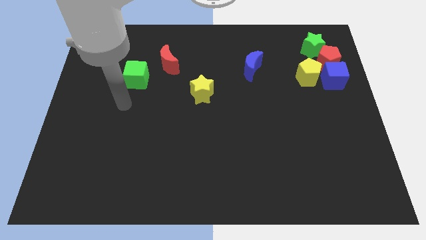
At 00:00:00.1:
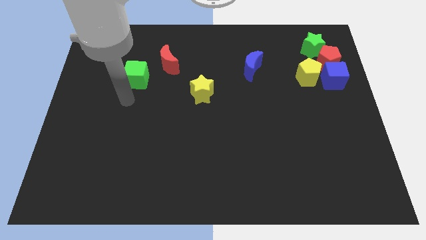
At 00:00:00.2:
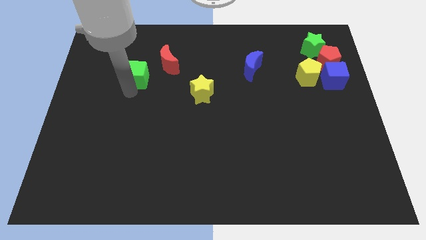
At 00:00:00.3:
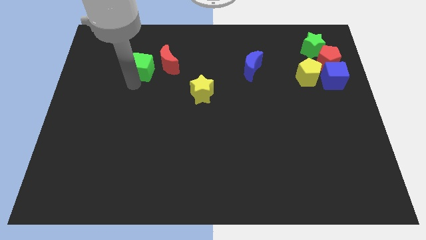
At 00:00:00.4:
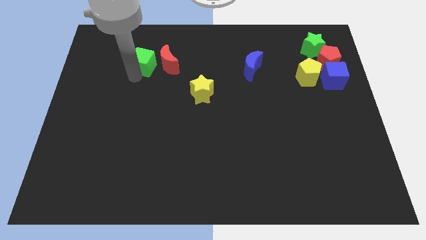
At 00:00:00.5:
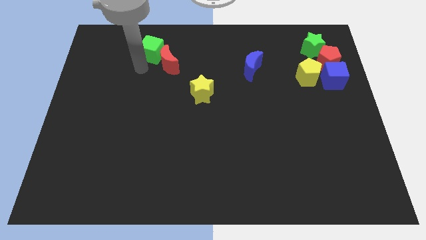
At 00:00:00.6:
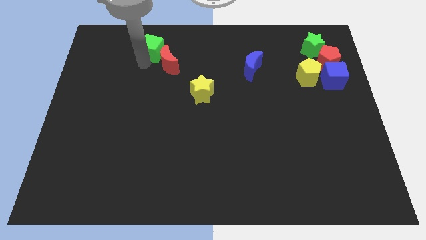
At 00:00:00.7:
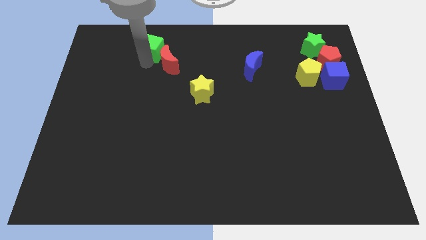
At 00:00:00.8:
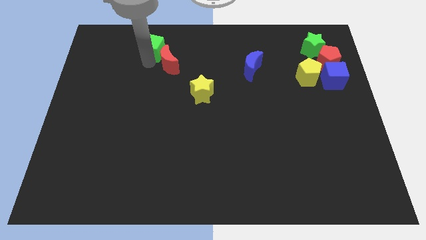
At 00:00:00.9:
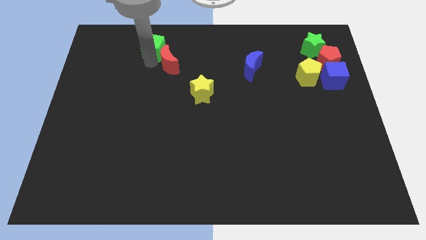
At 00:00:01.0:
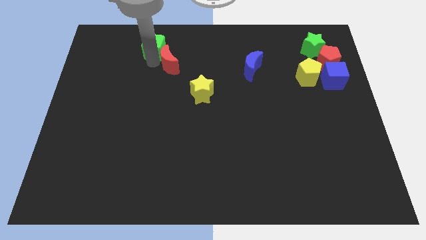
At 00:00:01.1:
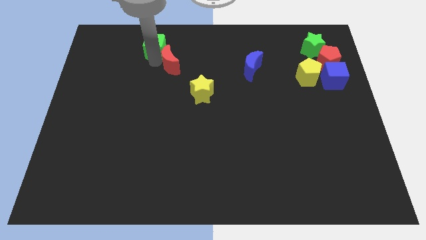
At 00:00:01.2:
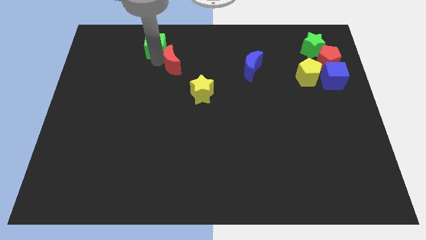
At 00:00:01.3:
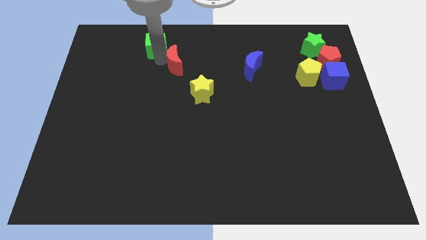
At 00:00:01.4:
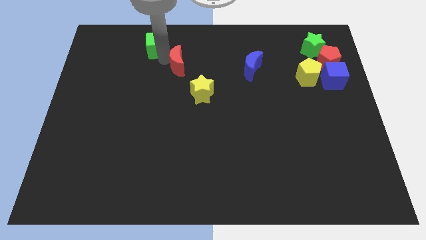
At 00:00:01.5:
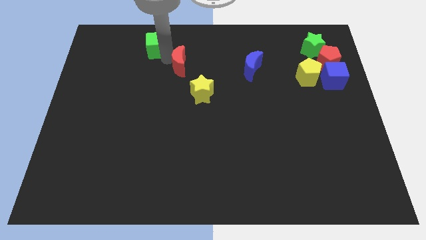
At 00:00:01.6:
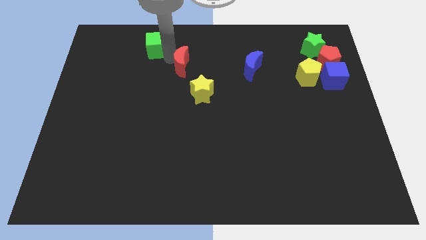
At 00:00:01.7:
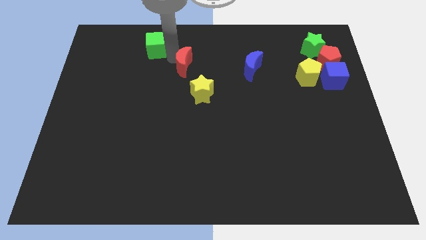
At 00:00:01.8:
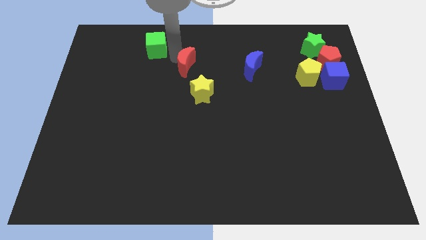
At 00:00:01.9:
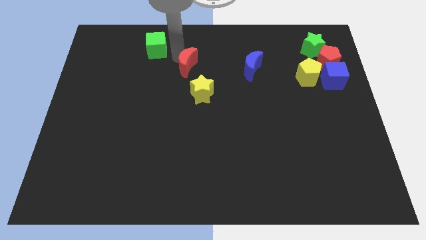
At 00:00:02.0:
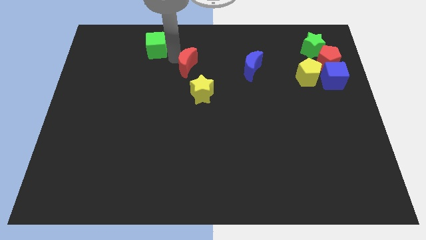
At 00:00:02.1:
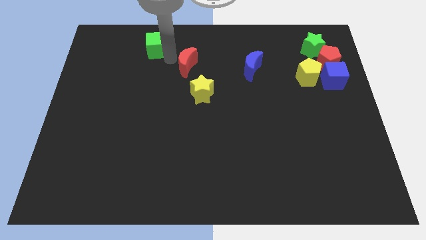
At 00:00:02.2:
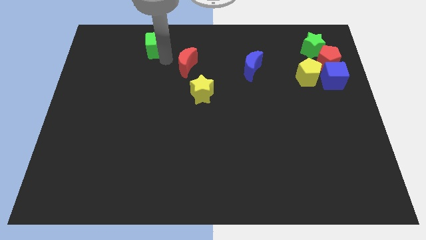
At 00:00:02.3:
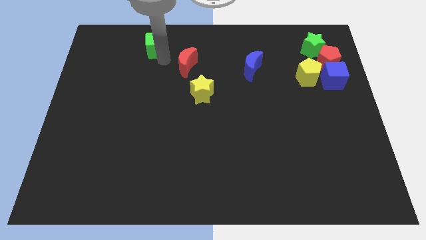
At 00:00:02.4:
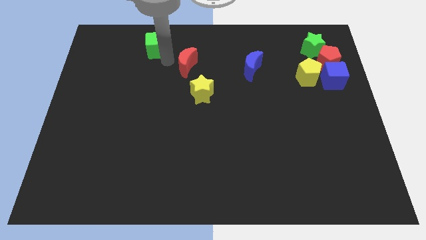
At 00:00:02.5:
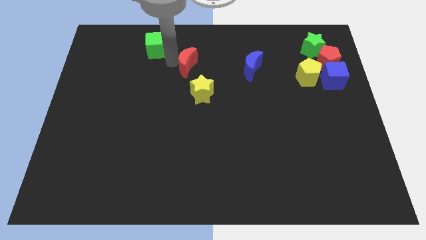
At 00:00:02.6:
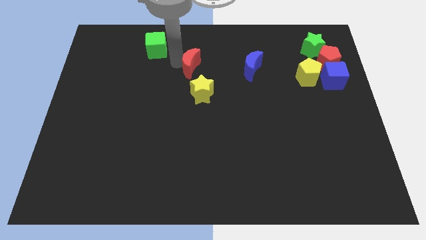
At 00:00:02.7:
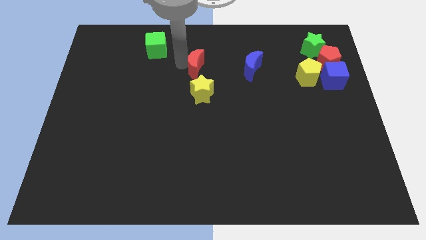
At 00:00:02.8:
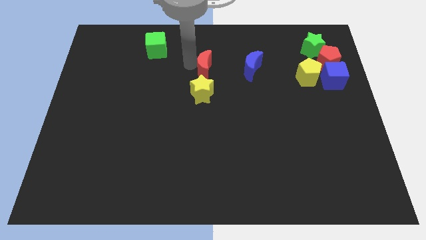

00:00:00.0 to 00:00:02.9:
slide the red moon somewhat downwards and then right

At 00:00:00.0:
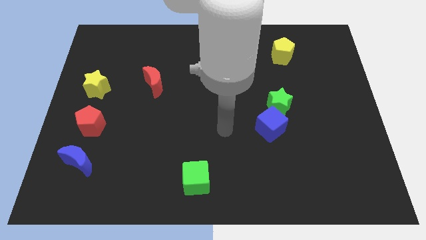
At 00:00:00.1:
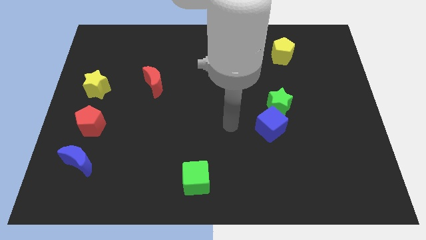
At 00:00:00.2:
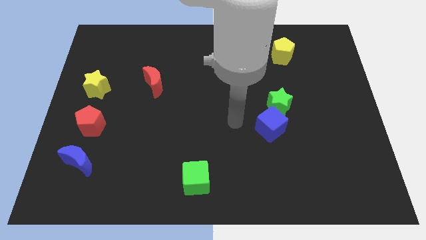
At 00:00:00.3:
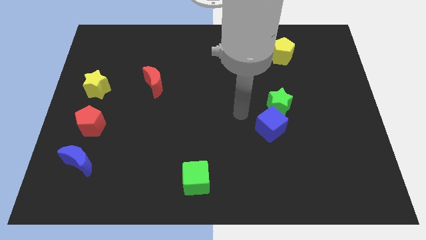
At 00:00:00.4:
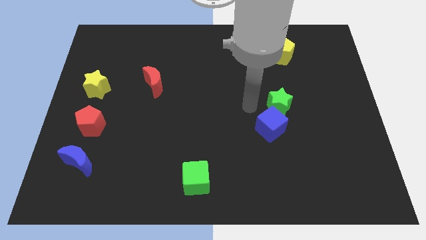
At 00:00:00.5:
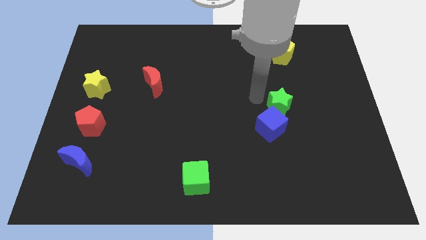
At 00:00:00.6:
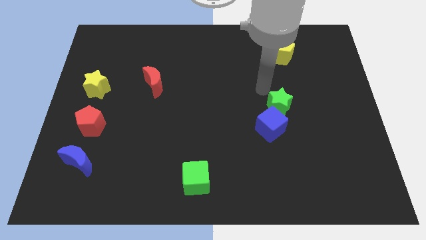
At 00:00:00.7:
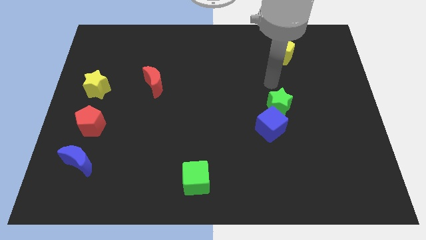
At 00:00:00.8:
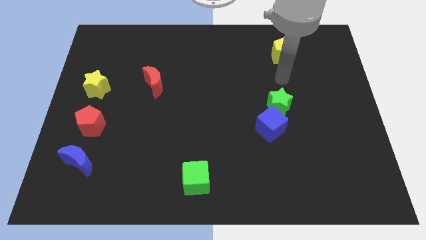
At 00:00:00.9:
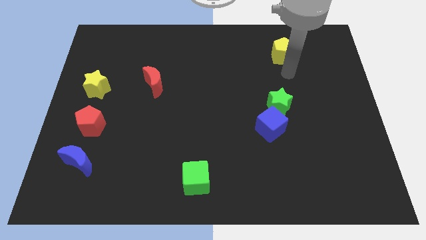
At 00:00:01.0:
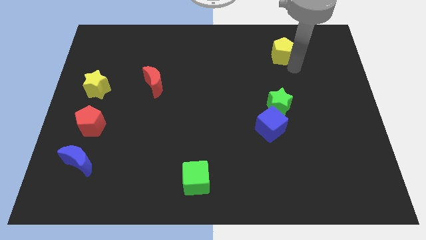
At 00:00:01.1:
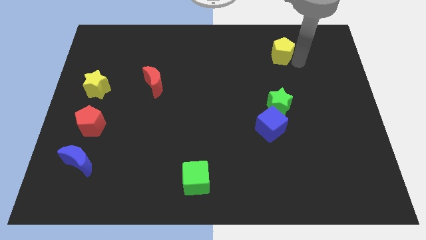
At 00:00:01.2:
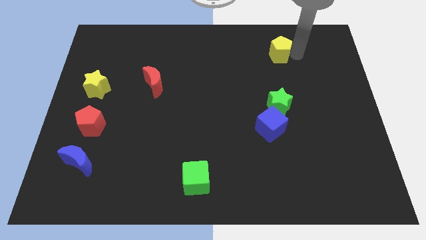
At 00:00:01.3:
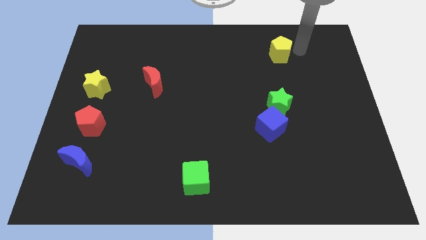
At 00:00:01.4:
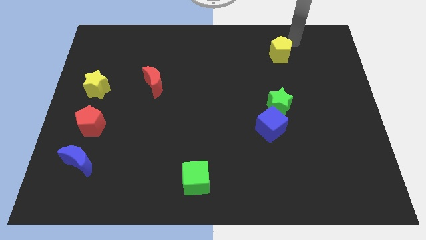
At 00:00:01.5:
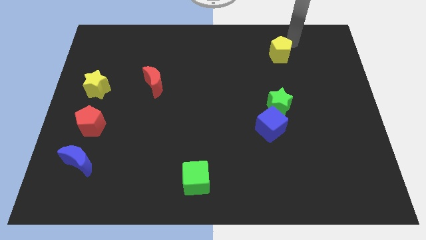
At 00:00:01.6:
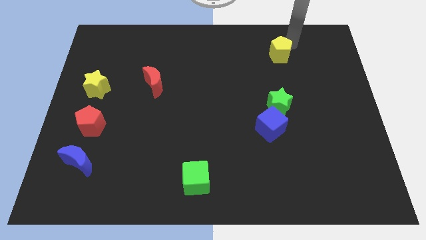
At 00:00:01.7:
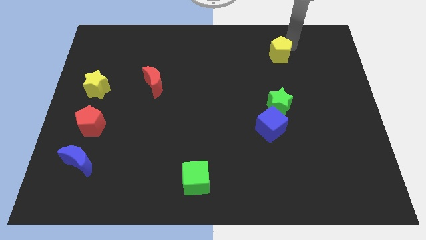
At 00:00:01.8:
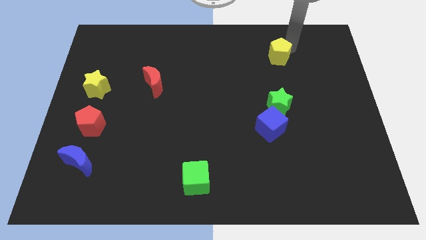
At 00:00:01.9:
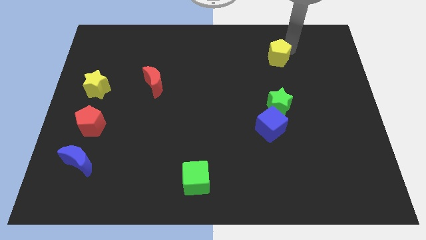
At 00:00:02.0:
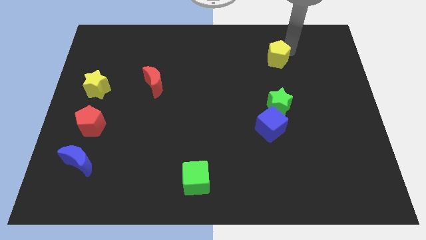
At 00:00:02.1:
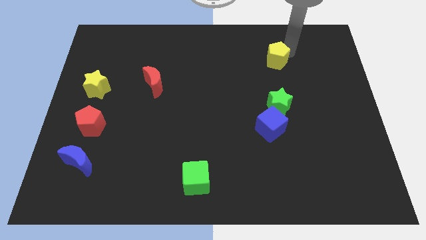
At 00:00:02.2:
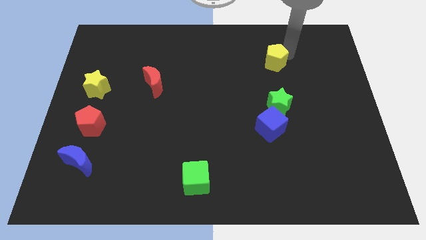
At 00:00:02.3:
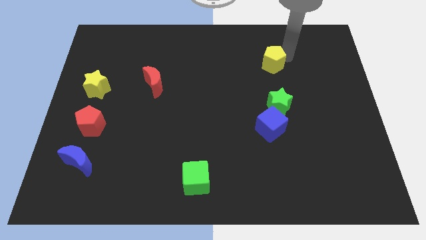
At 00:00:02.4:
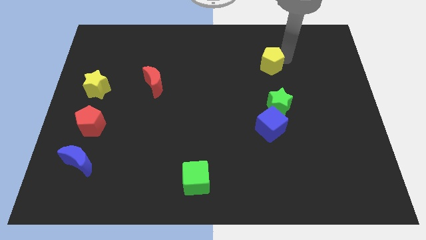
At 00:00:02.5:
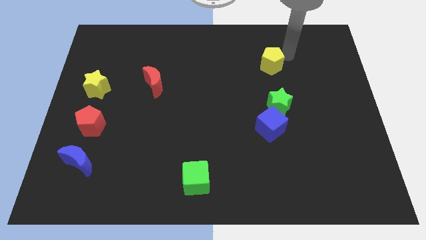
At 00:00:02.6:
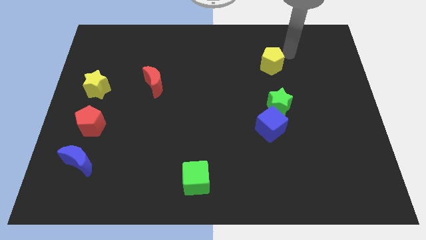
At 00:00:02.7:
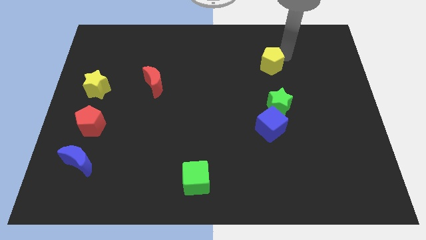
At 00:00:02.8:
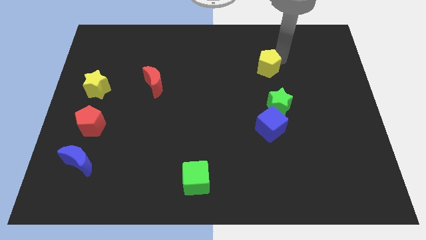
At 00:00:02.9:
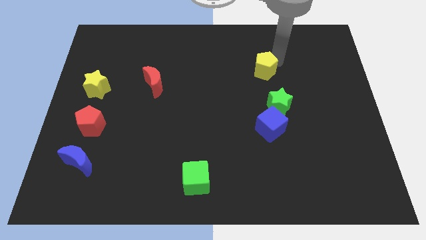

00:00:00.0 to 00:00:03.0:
move the yellow pentagon somewhat downwards and left diagonally

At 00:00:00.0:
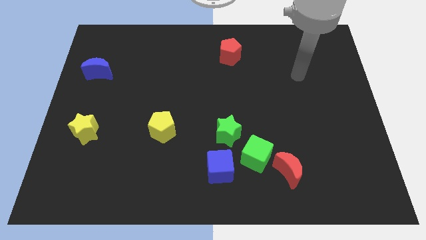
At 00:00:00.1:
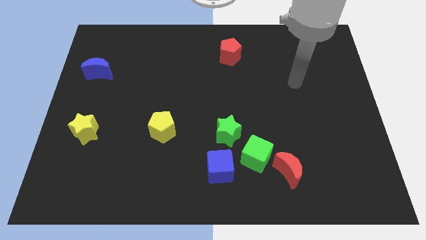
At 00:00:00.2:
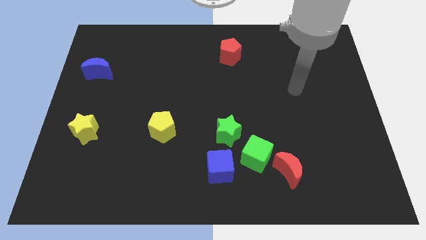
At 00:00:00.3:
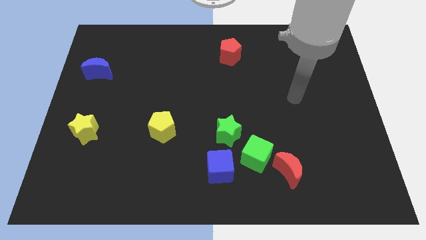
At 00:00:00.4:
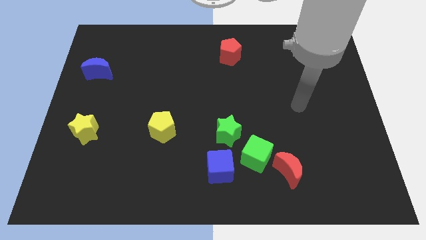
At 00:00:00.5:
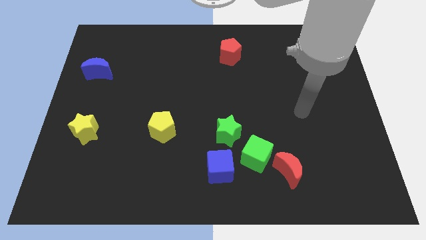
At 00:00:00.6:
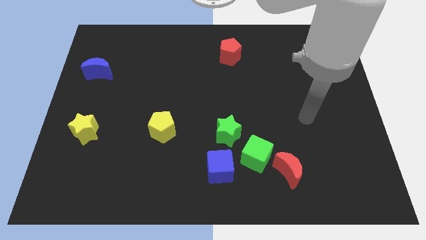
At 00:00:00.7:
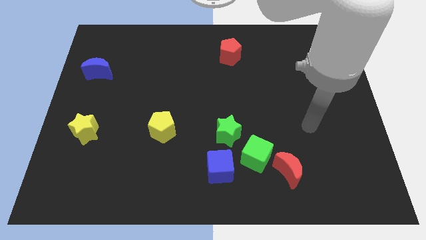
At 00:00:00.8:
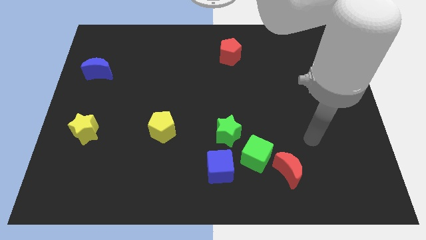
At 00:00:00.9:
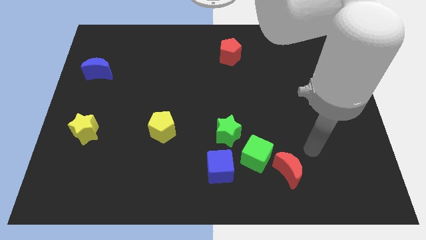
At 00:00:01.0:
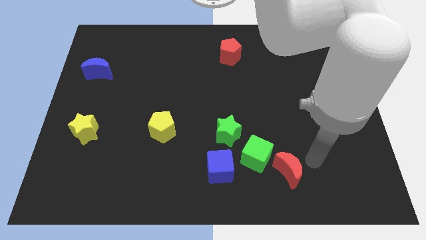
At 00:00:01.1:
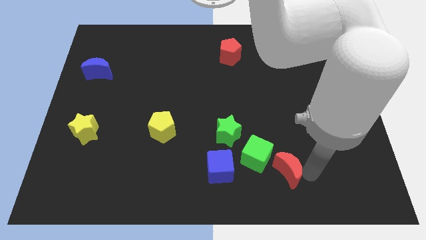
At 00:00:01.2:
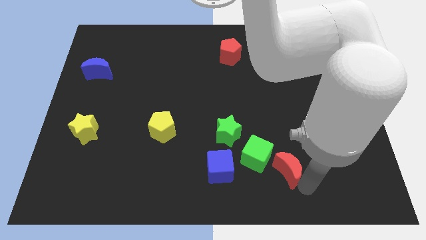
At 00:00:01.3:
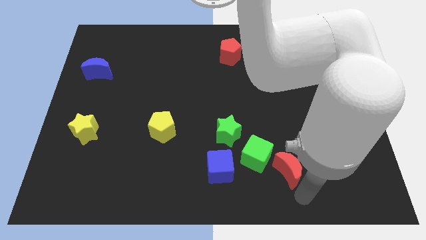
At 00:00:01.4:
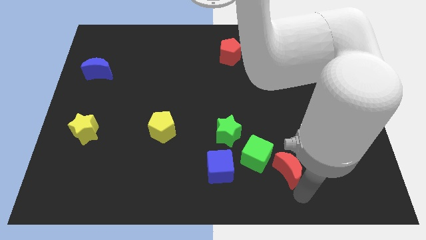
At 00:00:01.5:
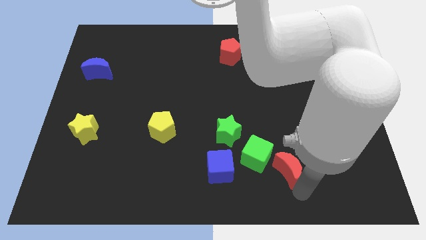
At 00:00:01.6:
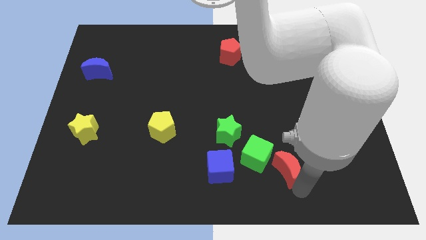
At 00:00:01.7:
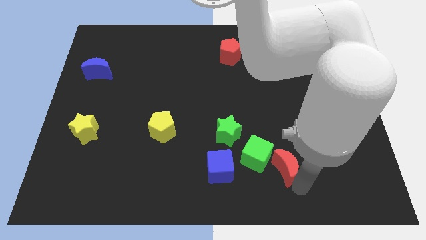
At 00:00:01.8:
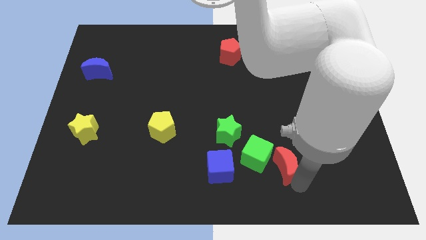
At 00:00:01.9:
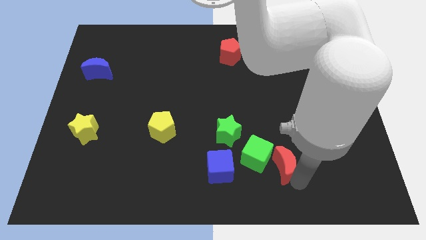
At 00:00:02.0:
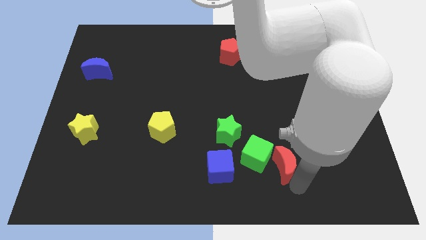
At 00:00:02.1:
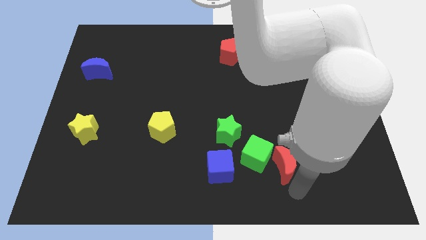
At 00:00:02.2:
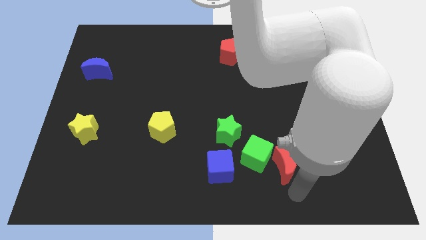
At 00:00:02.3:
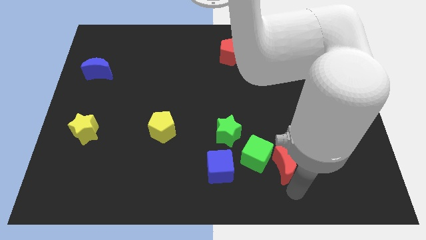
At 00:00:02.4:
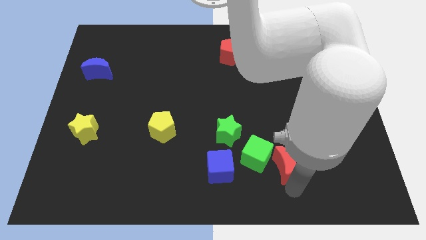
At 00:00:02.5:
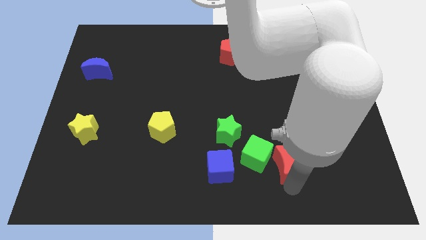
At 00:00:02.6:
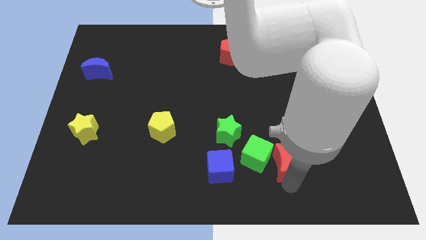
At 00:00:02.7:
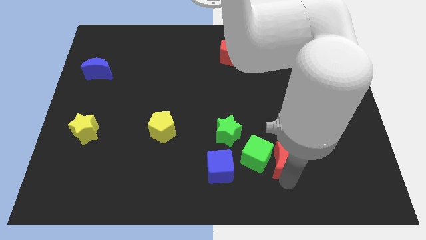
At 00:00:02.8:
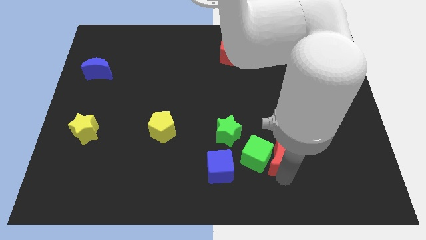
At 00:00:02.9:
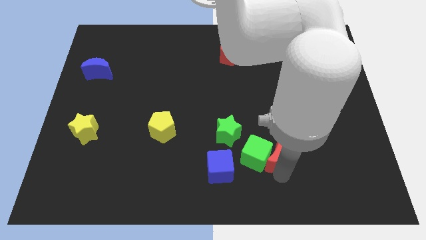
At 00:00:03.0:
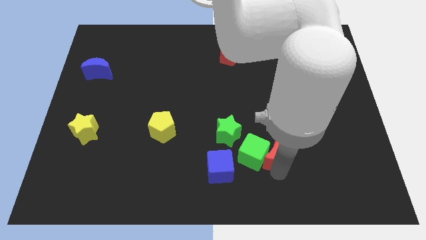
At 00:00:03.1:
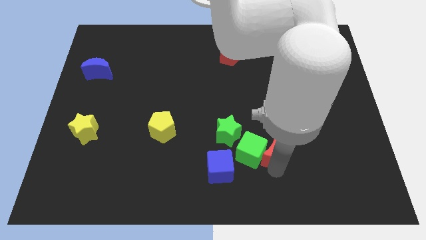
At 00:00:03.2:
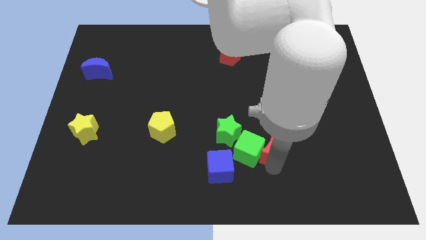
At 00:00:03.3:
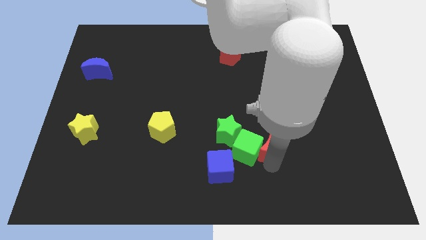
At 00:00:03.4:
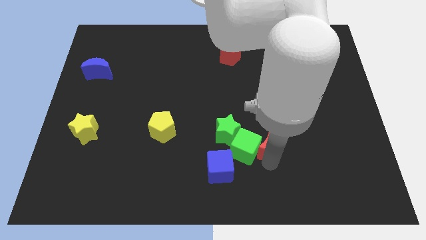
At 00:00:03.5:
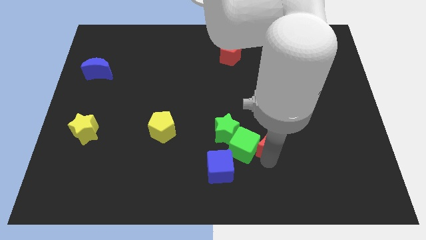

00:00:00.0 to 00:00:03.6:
push the red moon somewhat up and to the left diagonally
